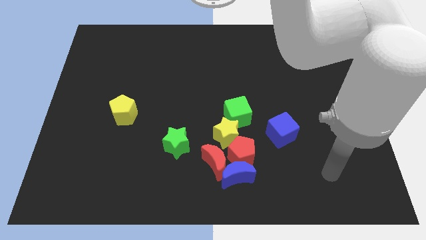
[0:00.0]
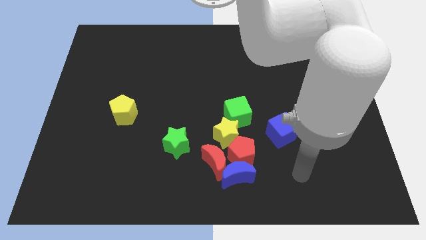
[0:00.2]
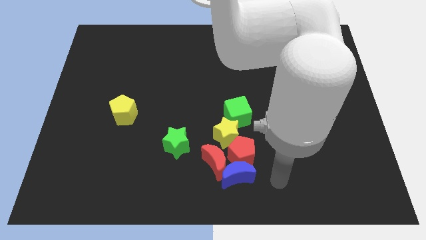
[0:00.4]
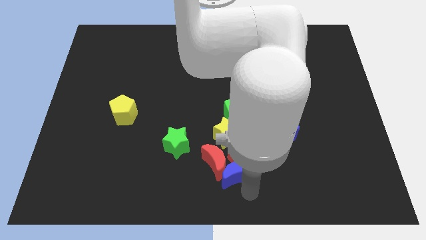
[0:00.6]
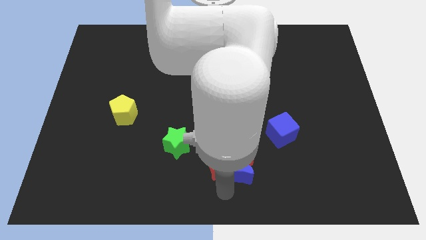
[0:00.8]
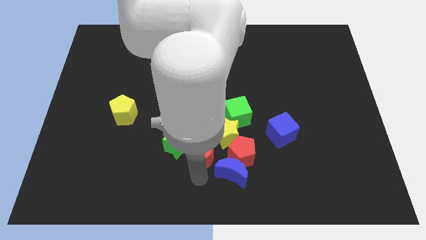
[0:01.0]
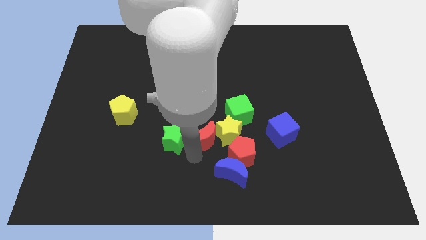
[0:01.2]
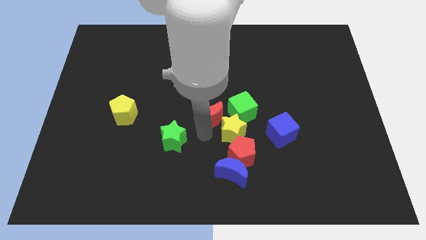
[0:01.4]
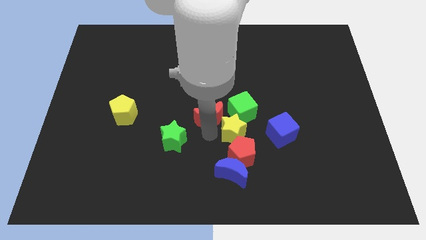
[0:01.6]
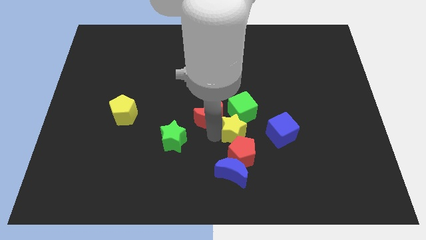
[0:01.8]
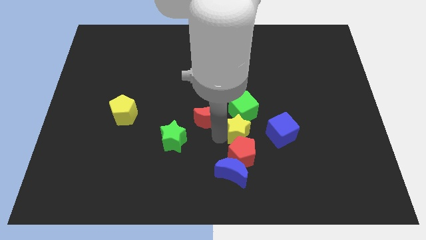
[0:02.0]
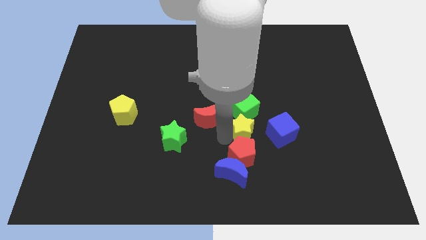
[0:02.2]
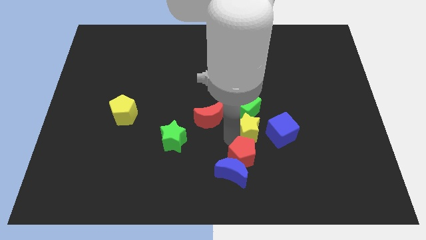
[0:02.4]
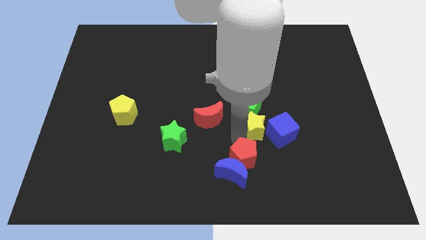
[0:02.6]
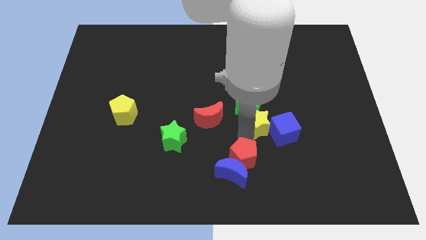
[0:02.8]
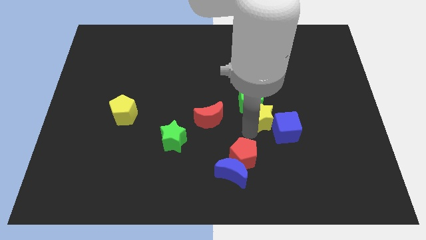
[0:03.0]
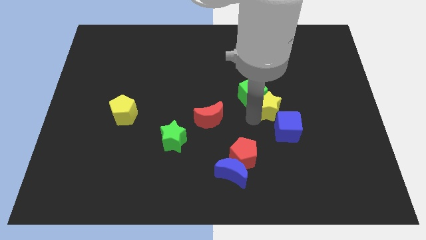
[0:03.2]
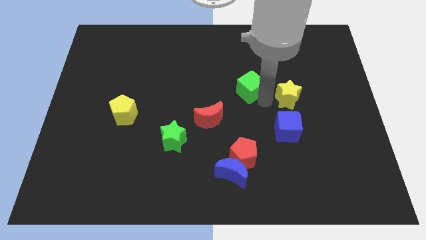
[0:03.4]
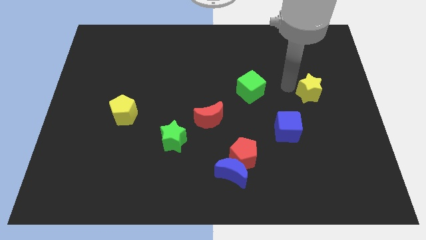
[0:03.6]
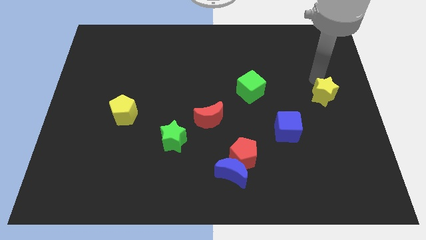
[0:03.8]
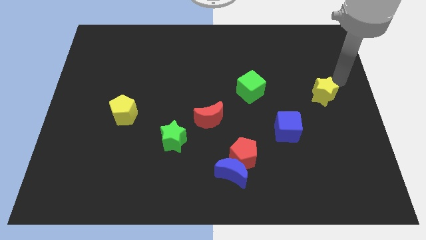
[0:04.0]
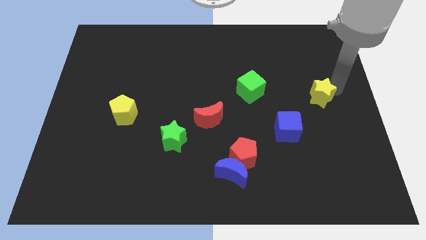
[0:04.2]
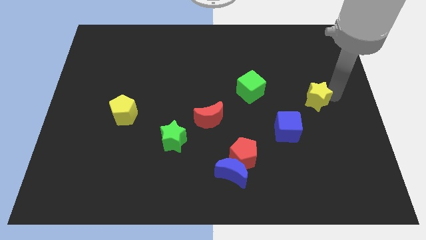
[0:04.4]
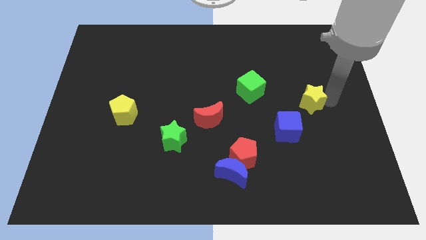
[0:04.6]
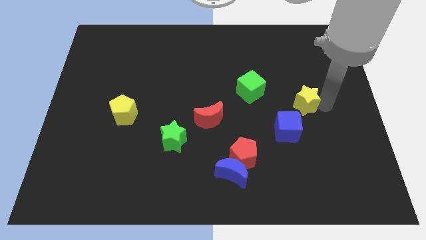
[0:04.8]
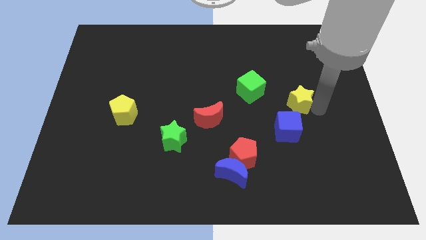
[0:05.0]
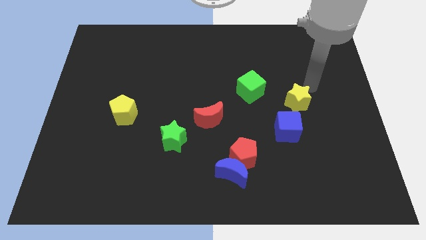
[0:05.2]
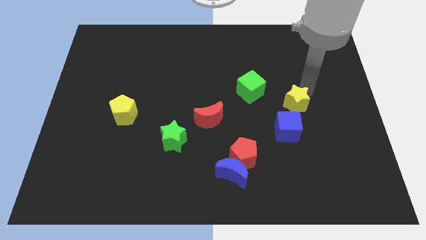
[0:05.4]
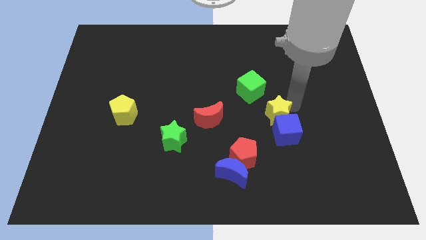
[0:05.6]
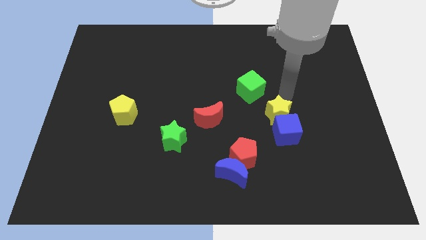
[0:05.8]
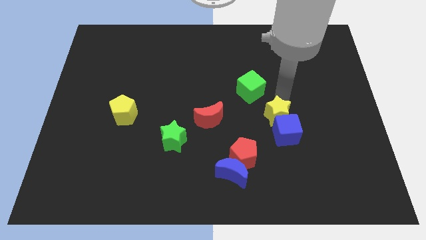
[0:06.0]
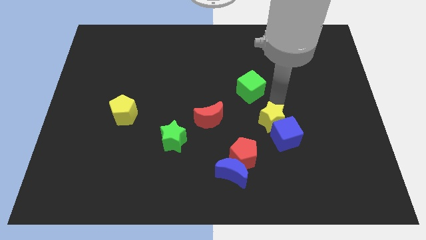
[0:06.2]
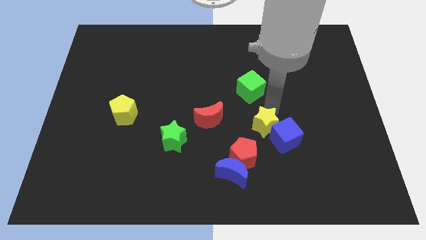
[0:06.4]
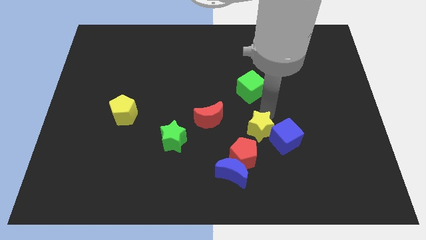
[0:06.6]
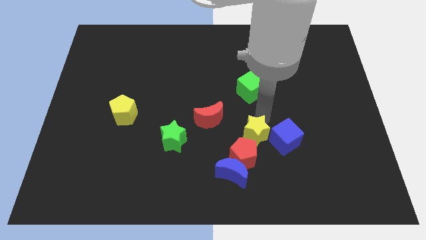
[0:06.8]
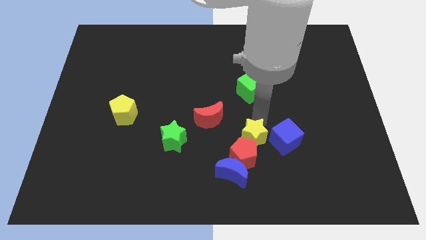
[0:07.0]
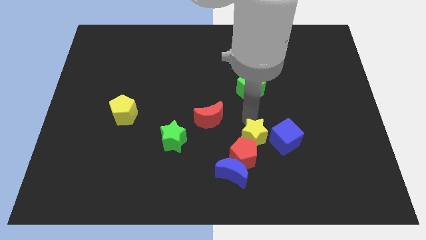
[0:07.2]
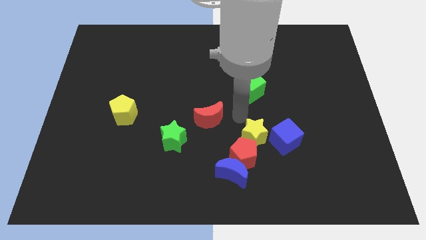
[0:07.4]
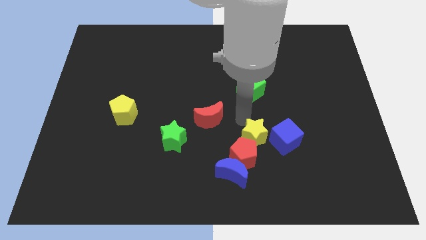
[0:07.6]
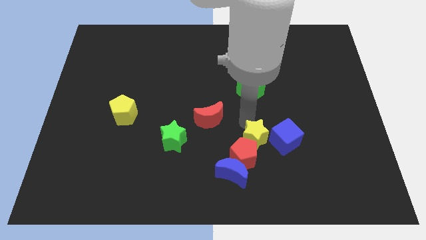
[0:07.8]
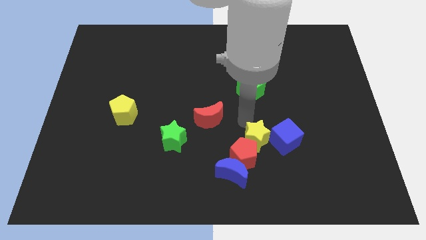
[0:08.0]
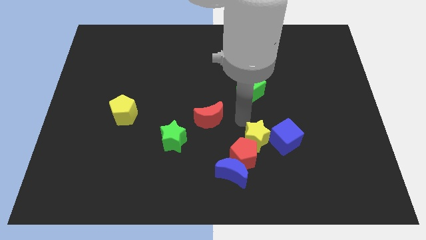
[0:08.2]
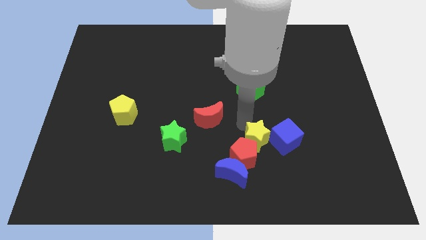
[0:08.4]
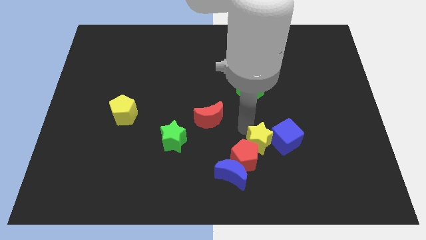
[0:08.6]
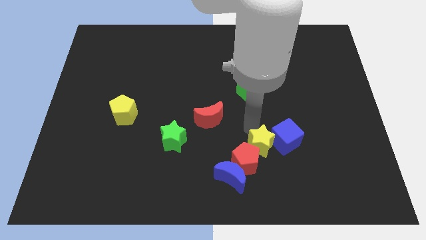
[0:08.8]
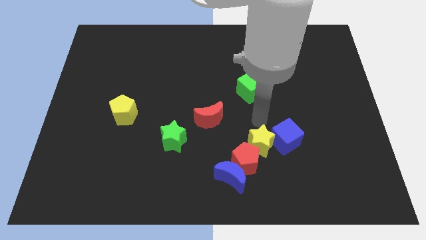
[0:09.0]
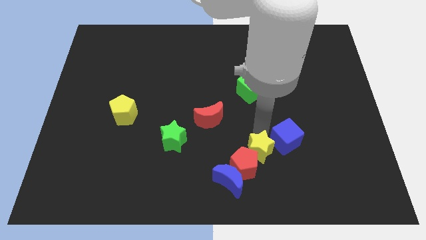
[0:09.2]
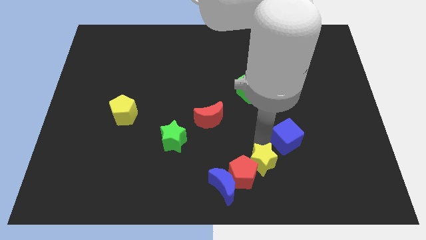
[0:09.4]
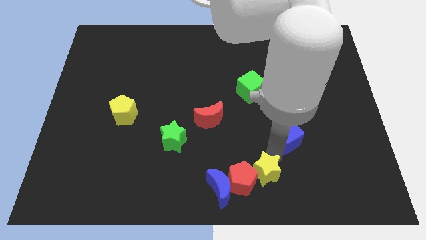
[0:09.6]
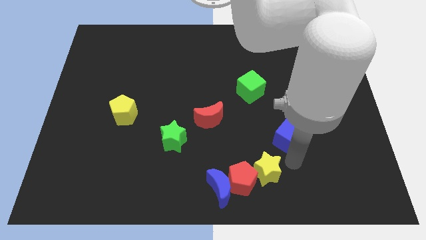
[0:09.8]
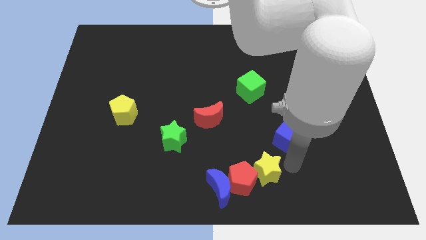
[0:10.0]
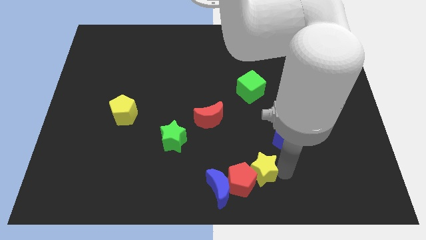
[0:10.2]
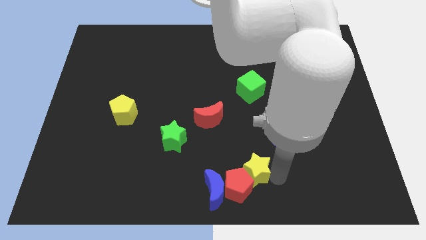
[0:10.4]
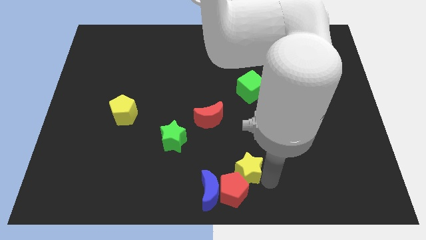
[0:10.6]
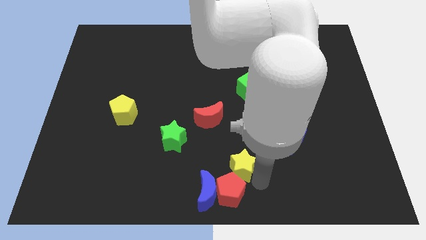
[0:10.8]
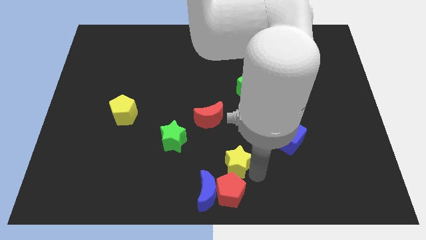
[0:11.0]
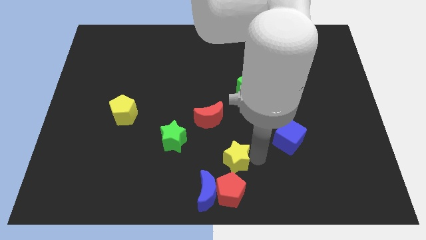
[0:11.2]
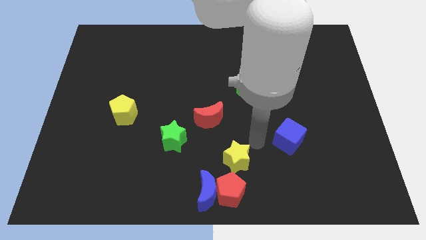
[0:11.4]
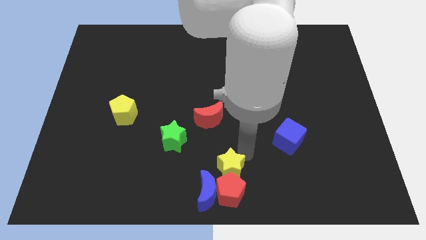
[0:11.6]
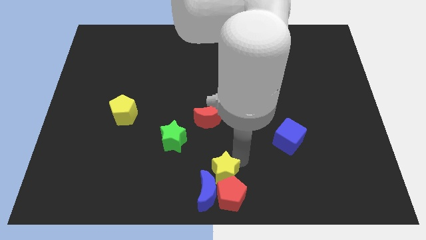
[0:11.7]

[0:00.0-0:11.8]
push the yellow star next to the blue moon

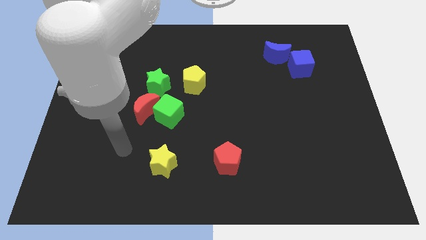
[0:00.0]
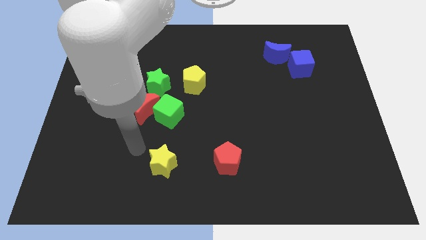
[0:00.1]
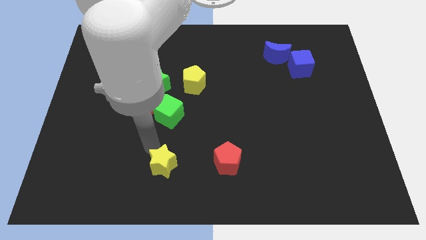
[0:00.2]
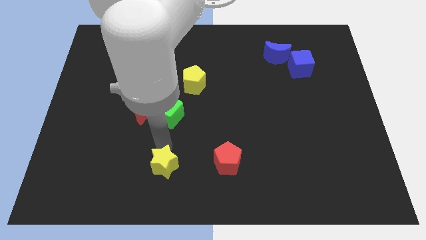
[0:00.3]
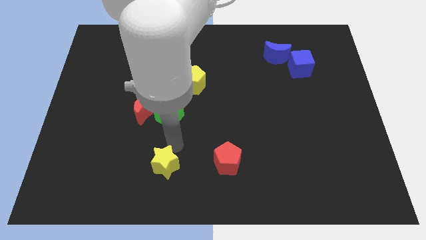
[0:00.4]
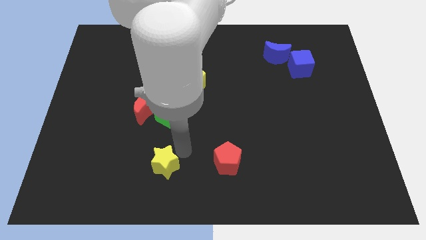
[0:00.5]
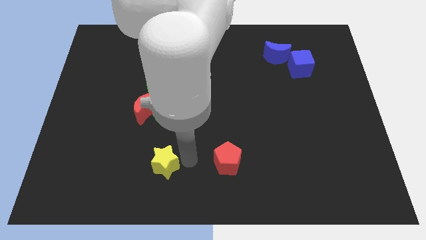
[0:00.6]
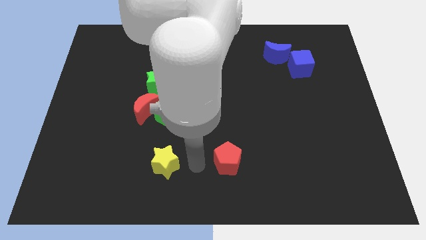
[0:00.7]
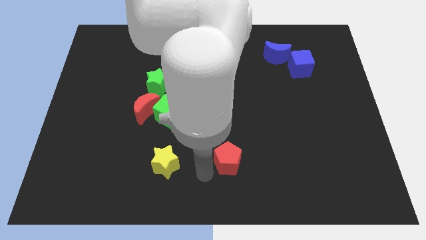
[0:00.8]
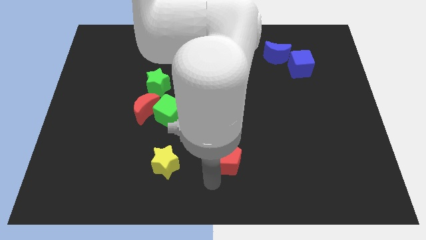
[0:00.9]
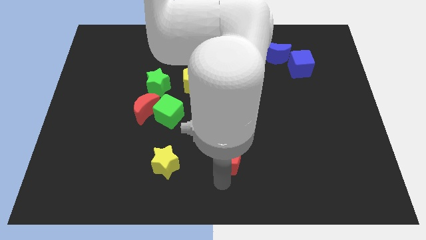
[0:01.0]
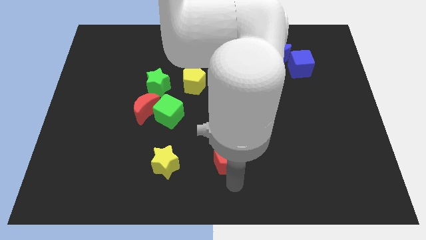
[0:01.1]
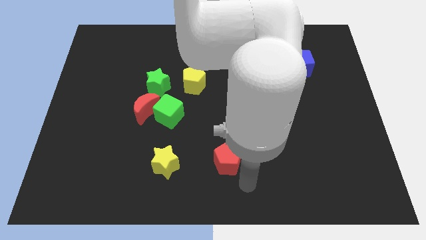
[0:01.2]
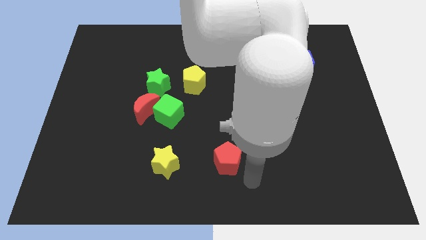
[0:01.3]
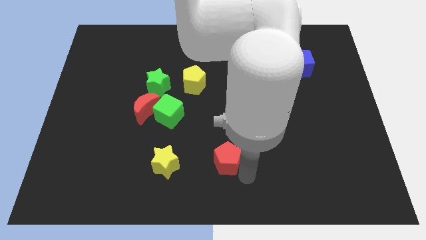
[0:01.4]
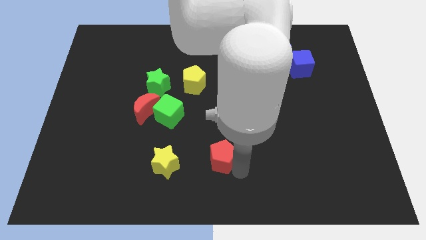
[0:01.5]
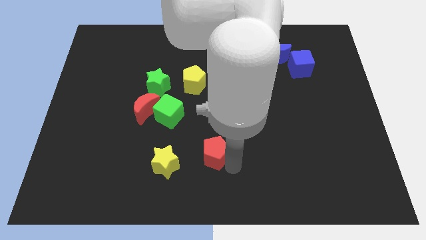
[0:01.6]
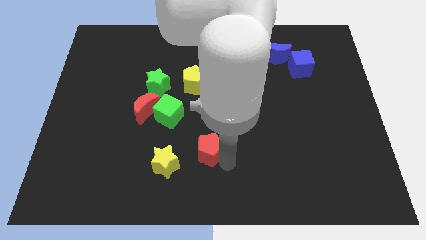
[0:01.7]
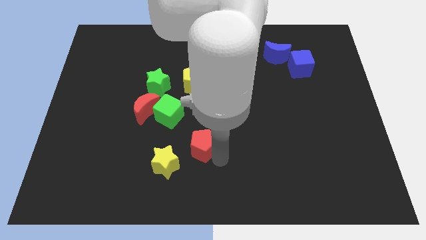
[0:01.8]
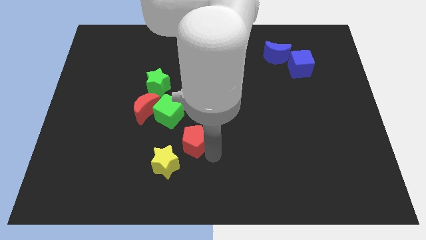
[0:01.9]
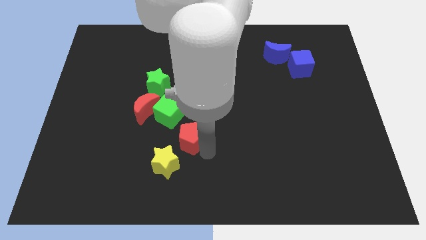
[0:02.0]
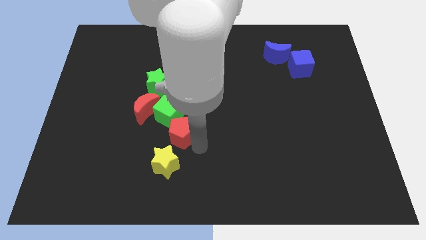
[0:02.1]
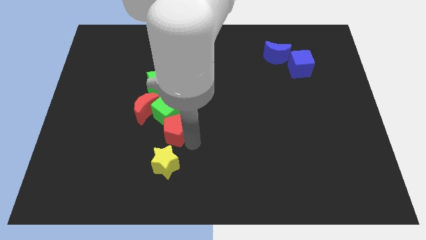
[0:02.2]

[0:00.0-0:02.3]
push the red pentagon to the green cube
